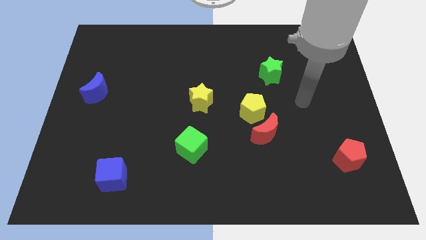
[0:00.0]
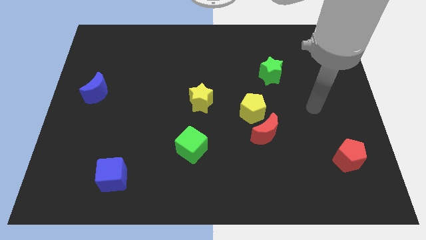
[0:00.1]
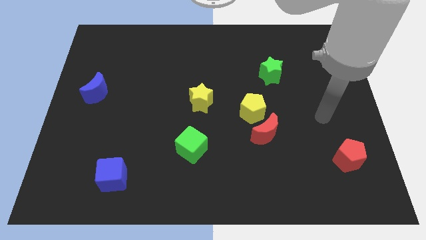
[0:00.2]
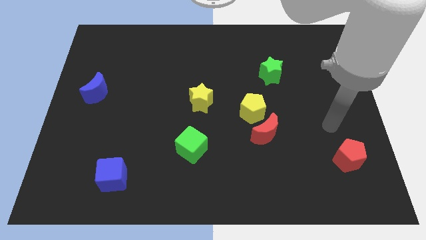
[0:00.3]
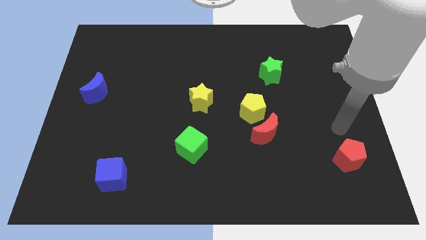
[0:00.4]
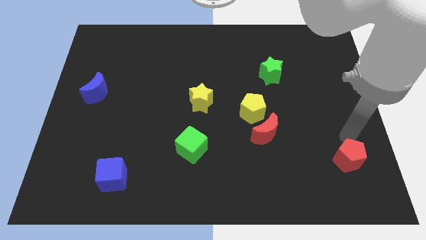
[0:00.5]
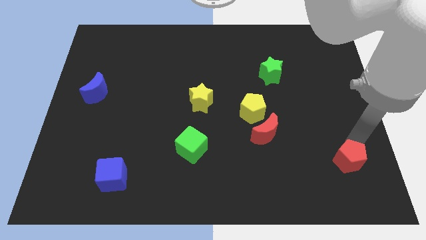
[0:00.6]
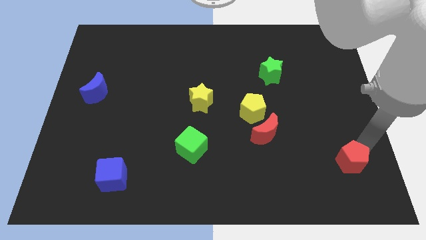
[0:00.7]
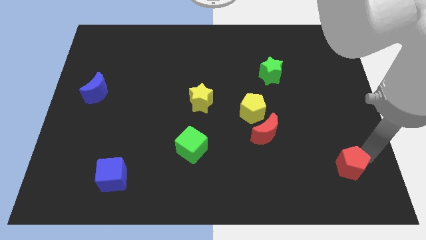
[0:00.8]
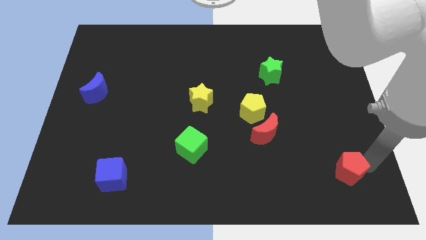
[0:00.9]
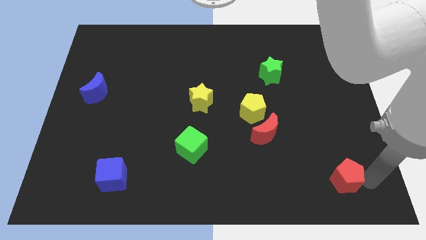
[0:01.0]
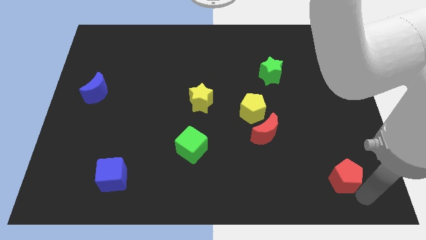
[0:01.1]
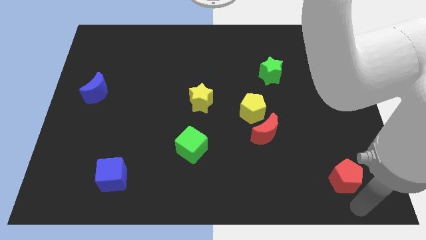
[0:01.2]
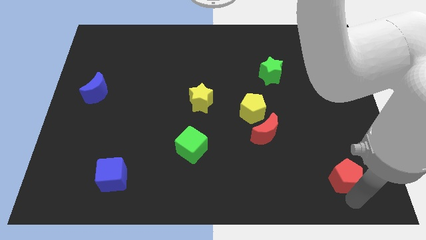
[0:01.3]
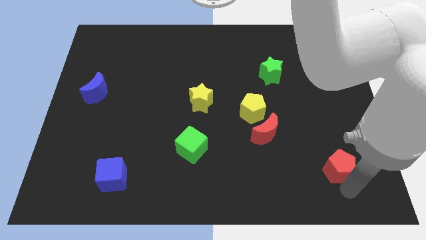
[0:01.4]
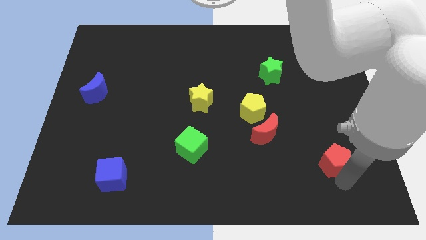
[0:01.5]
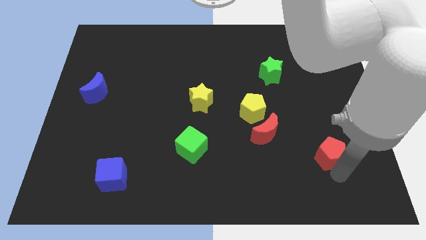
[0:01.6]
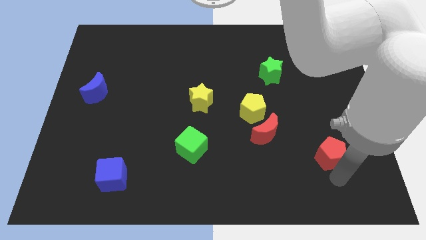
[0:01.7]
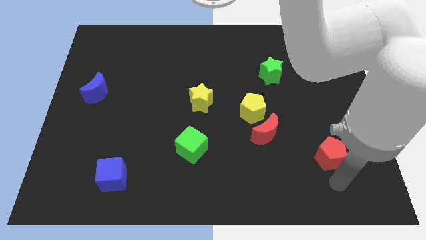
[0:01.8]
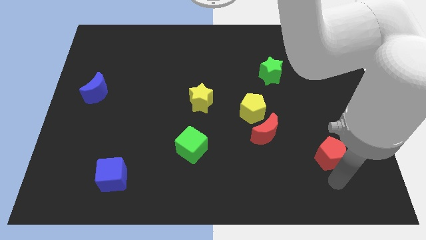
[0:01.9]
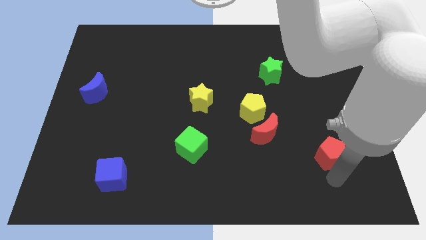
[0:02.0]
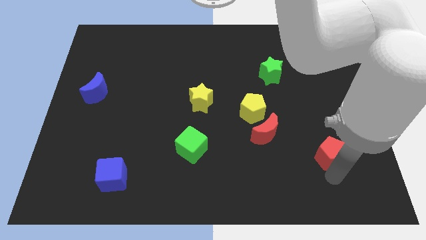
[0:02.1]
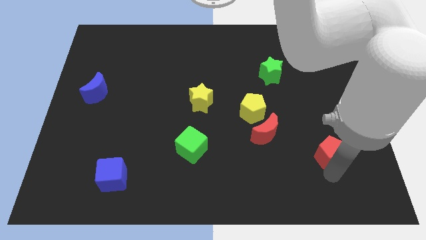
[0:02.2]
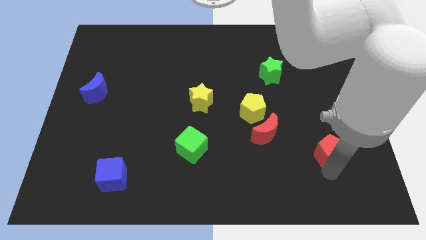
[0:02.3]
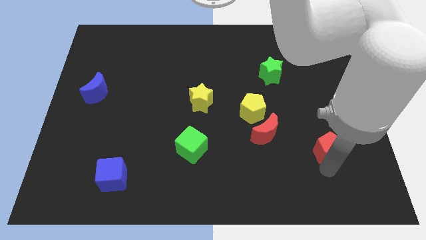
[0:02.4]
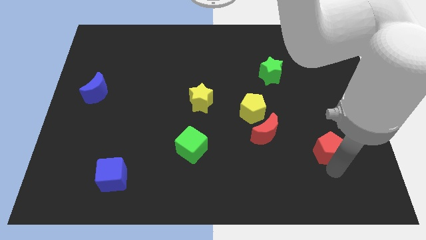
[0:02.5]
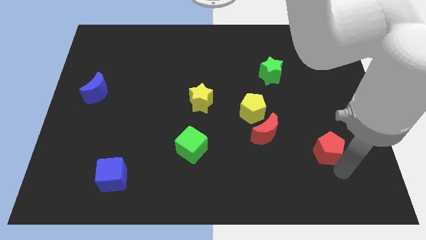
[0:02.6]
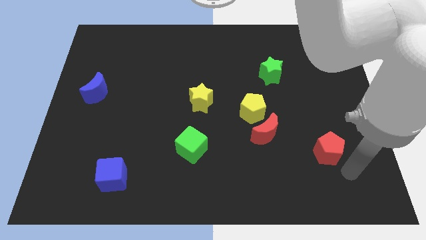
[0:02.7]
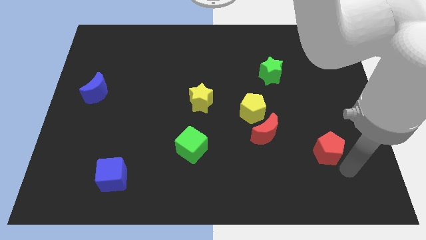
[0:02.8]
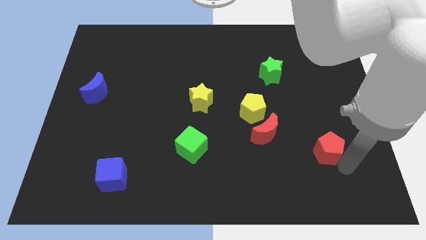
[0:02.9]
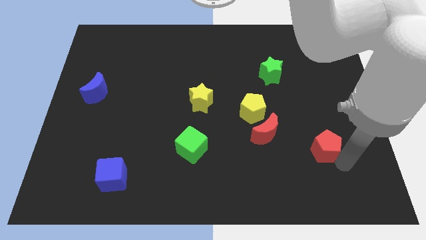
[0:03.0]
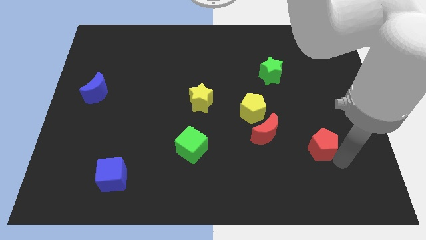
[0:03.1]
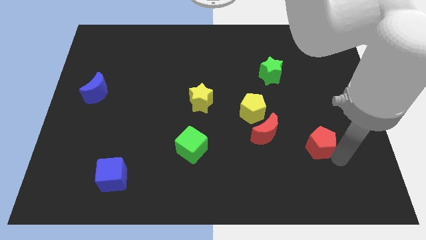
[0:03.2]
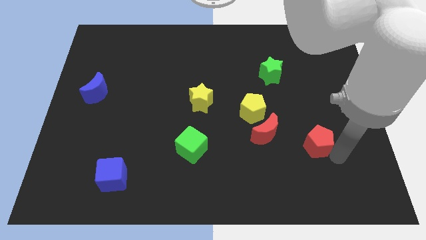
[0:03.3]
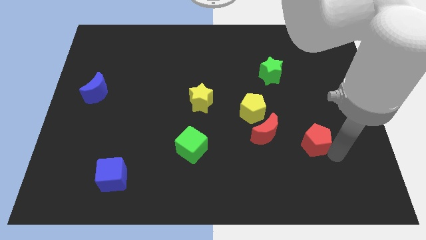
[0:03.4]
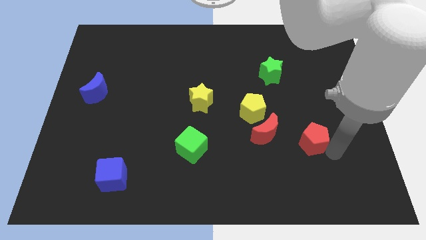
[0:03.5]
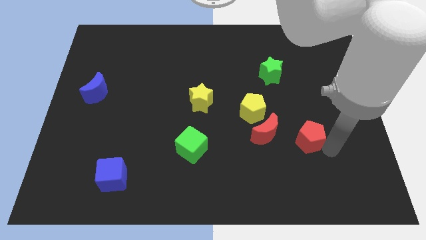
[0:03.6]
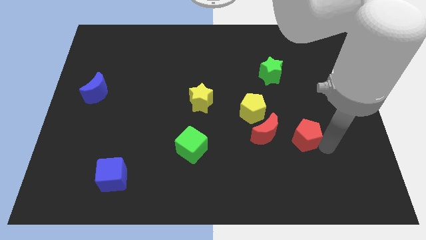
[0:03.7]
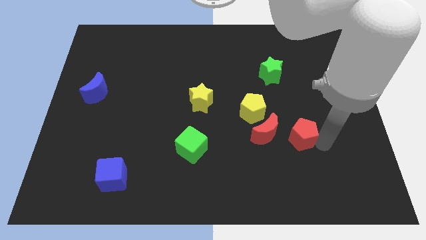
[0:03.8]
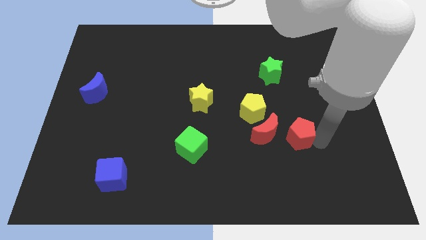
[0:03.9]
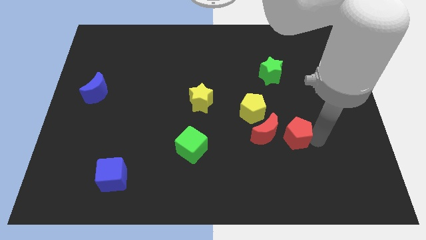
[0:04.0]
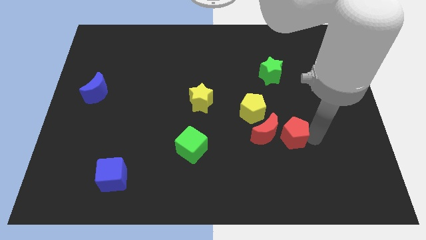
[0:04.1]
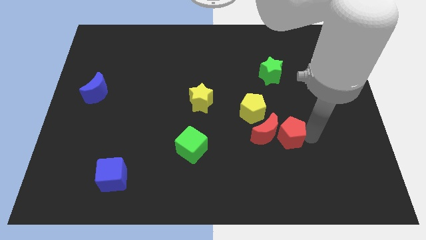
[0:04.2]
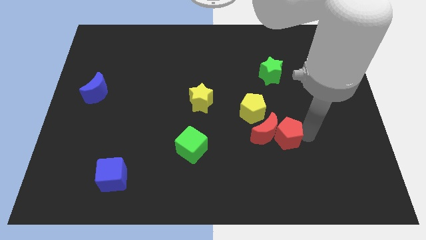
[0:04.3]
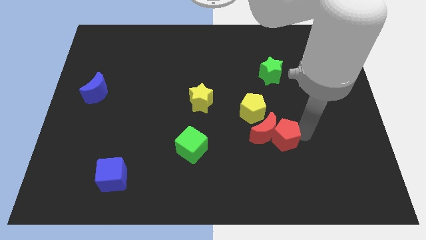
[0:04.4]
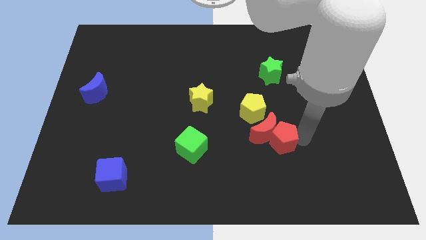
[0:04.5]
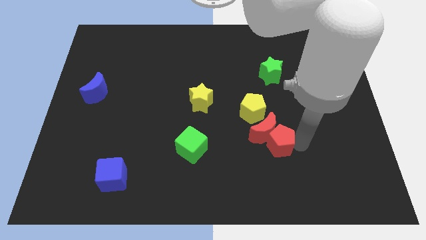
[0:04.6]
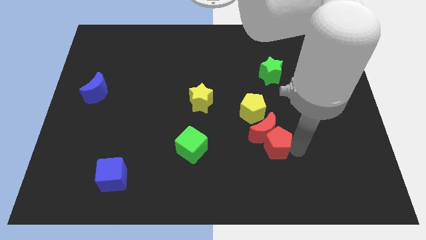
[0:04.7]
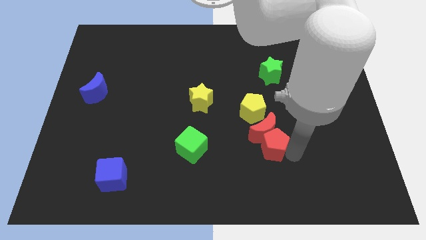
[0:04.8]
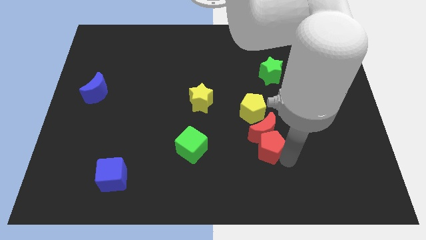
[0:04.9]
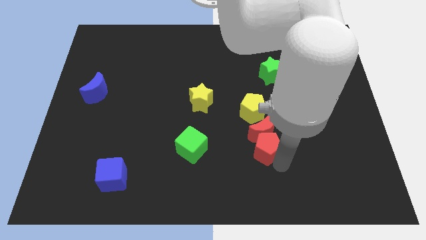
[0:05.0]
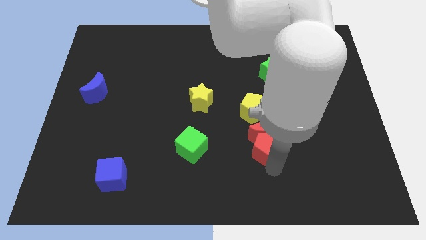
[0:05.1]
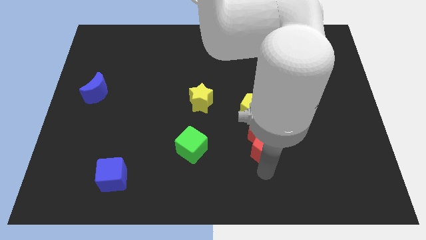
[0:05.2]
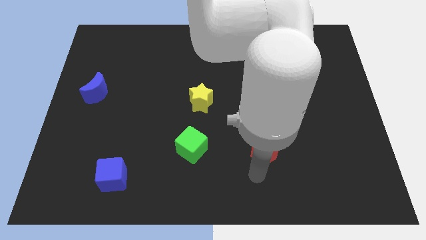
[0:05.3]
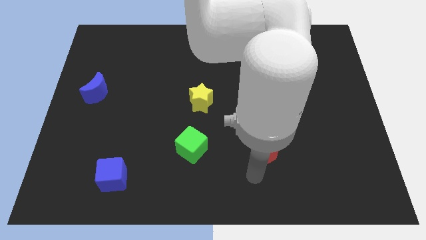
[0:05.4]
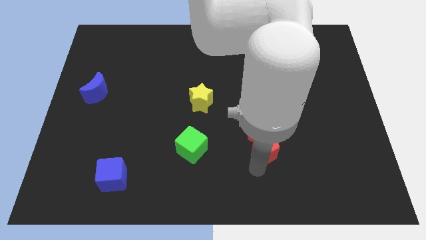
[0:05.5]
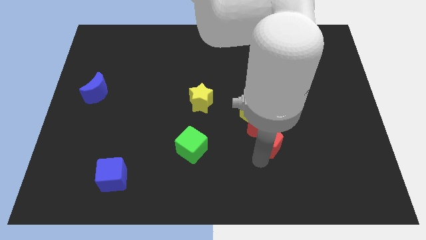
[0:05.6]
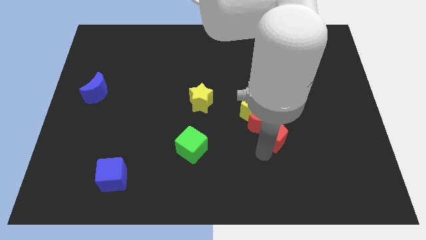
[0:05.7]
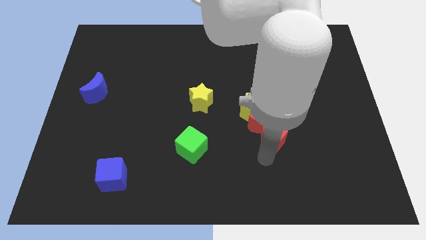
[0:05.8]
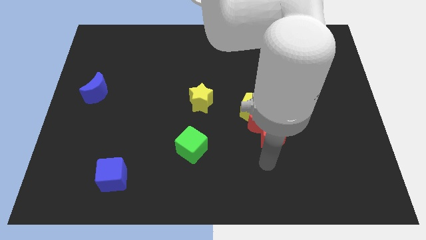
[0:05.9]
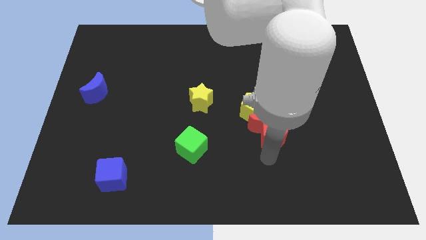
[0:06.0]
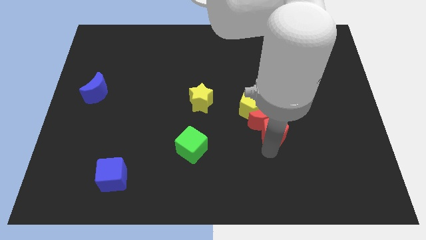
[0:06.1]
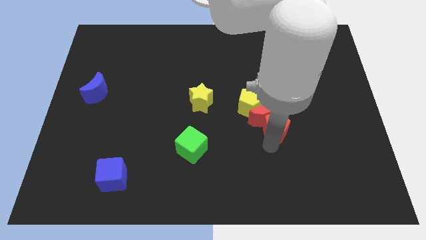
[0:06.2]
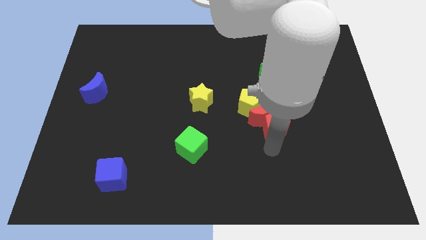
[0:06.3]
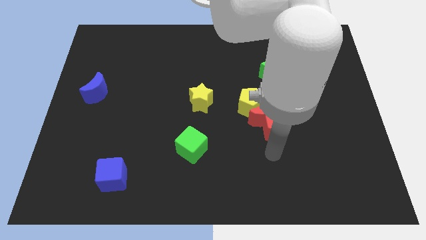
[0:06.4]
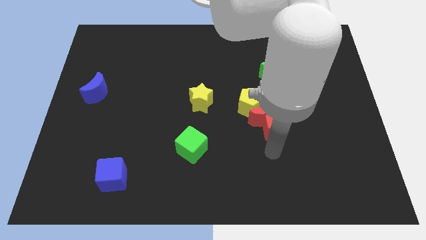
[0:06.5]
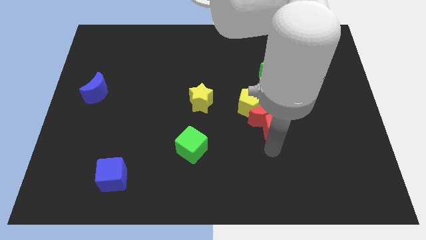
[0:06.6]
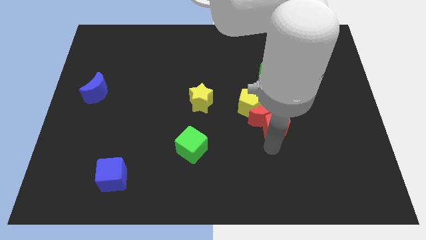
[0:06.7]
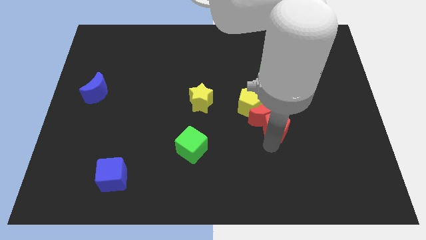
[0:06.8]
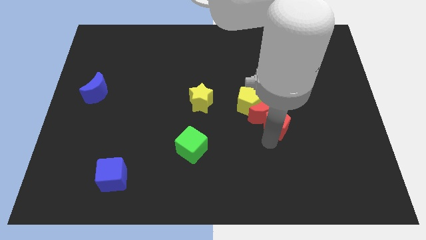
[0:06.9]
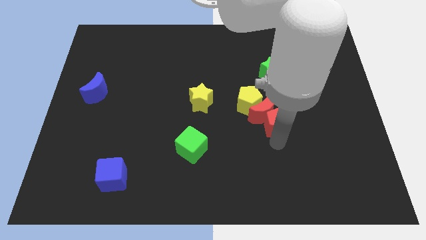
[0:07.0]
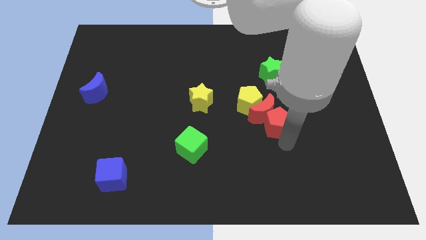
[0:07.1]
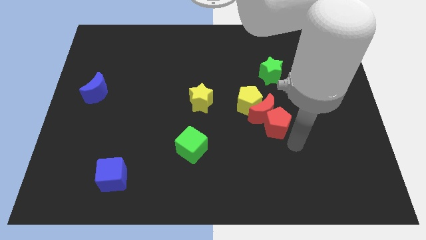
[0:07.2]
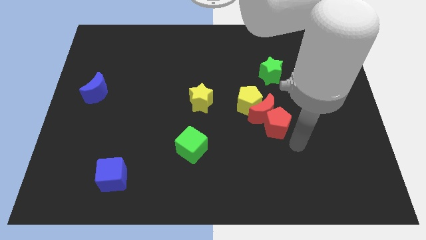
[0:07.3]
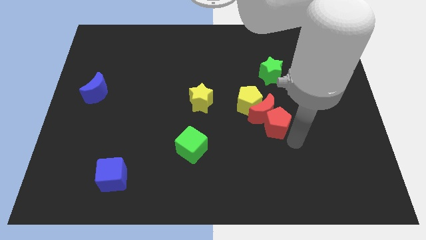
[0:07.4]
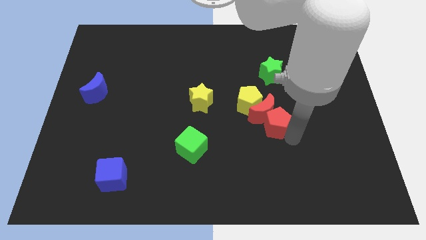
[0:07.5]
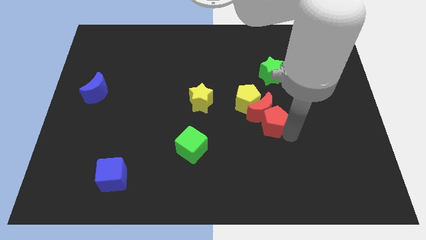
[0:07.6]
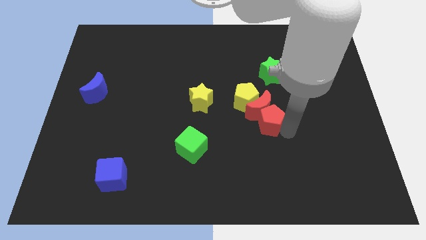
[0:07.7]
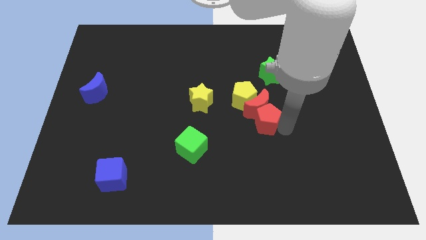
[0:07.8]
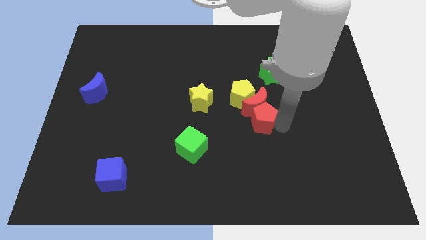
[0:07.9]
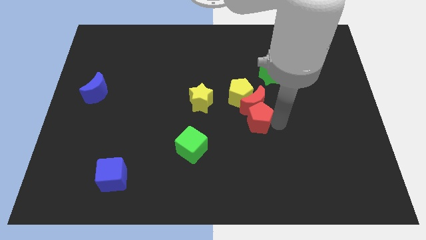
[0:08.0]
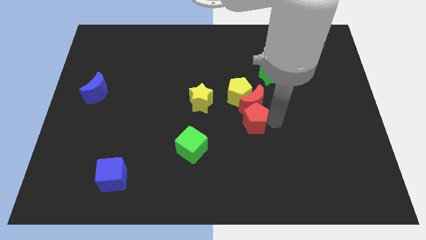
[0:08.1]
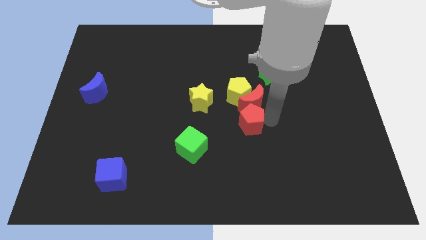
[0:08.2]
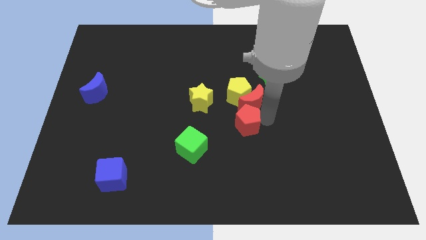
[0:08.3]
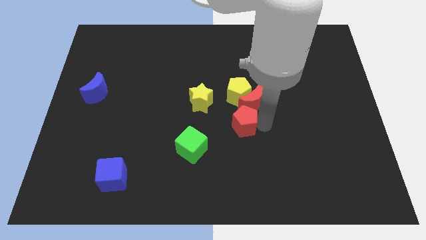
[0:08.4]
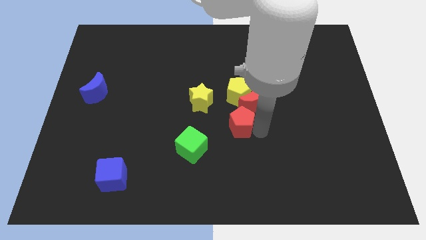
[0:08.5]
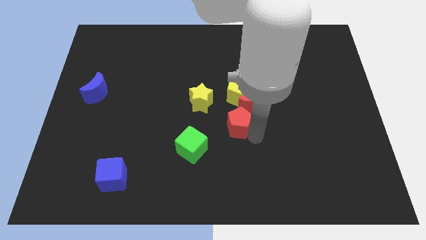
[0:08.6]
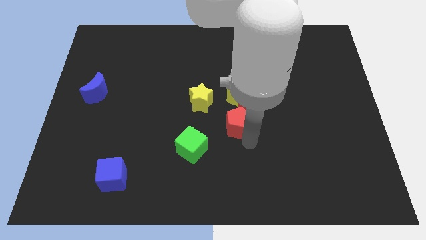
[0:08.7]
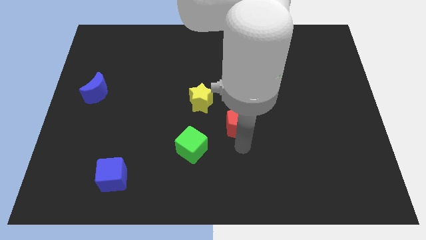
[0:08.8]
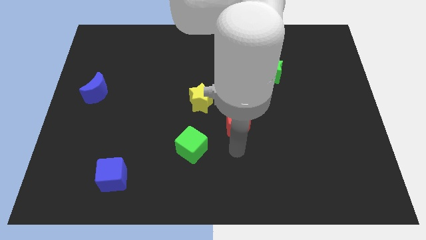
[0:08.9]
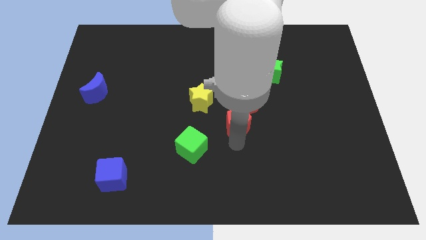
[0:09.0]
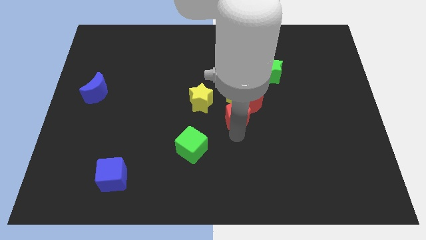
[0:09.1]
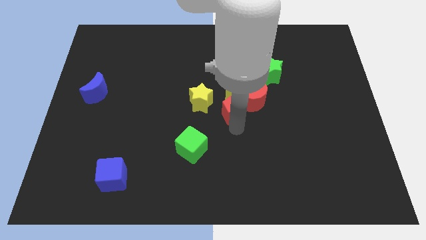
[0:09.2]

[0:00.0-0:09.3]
slide the red pentagon to the yellow pentagon
